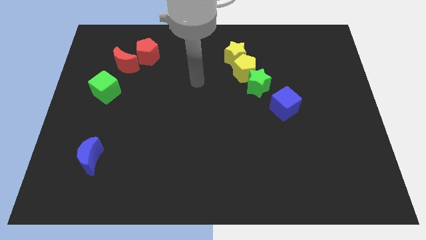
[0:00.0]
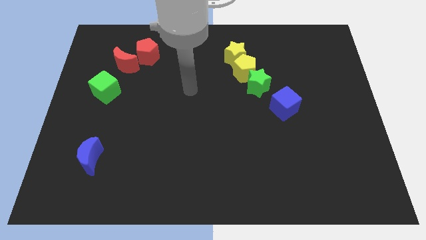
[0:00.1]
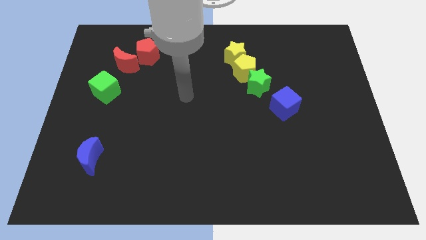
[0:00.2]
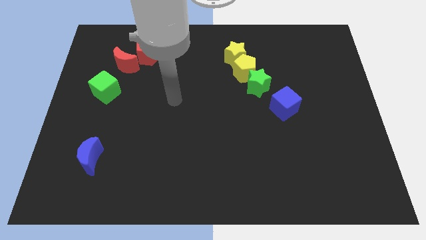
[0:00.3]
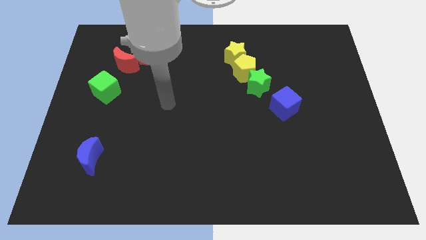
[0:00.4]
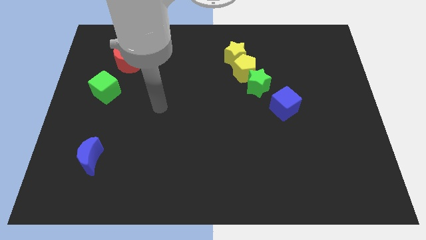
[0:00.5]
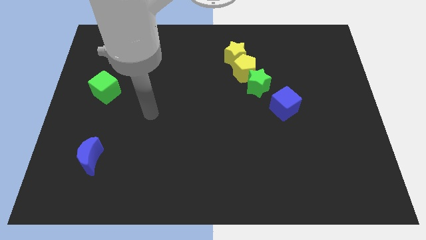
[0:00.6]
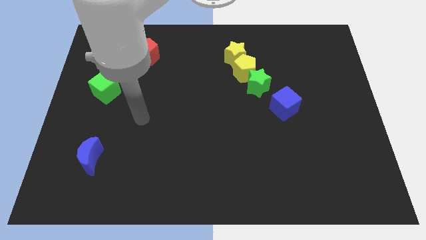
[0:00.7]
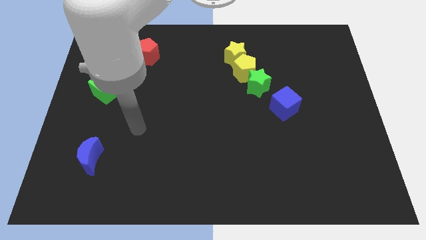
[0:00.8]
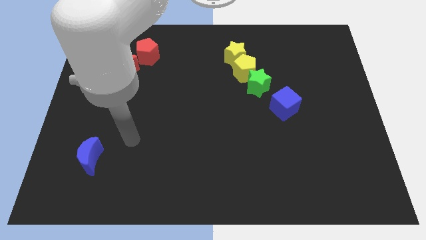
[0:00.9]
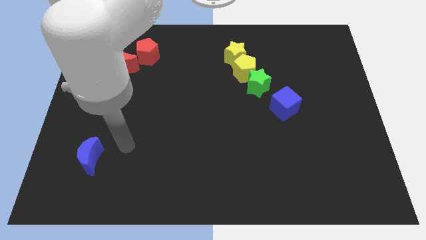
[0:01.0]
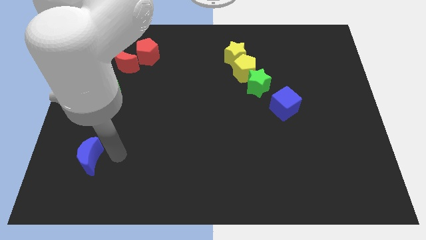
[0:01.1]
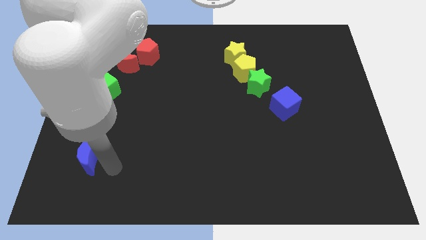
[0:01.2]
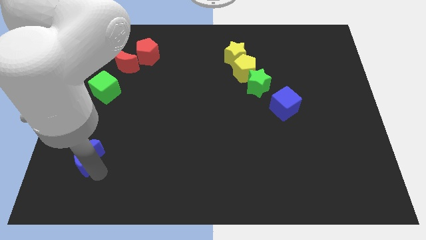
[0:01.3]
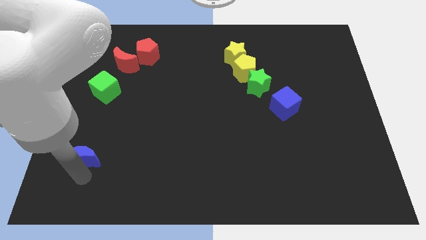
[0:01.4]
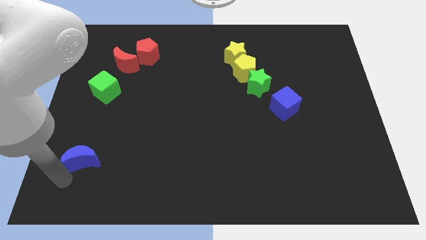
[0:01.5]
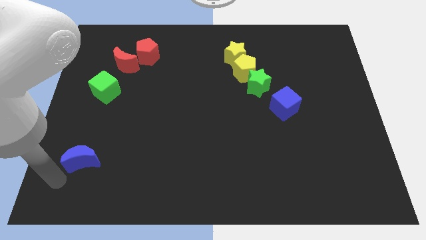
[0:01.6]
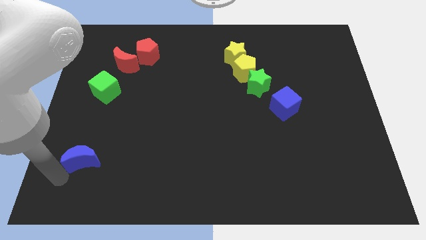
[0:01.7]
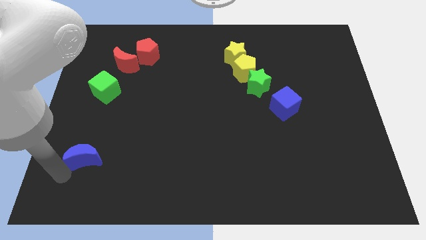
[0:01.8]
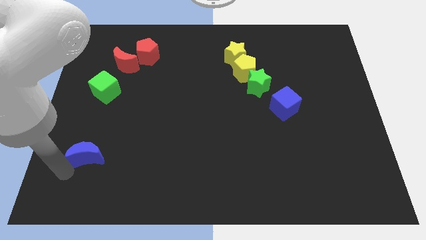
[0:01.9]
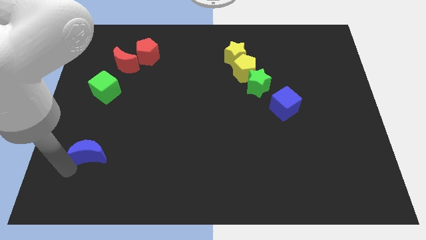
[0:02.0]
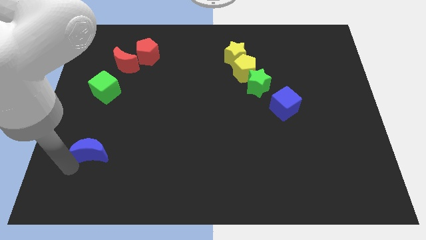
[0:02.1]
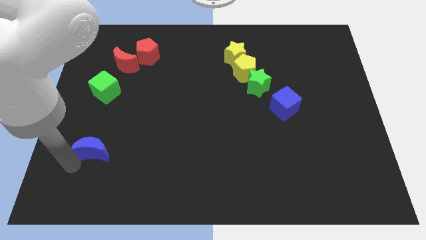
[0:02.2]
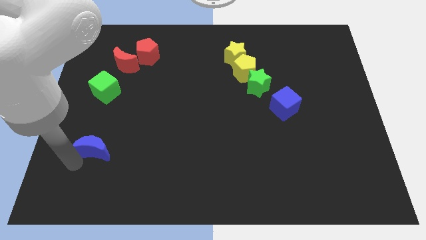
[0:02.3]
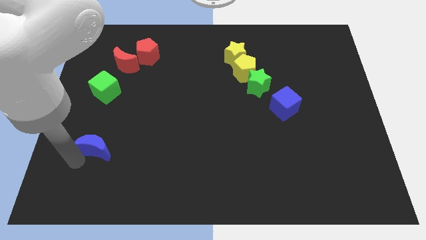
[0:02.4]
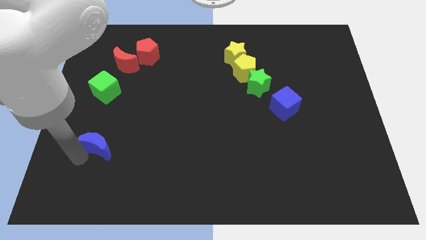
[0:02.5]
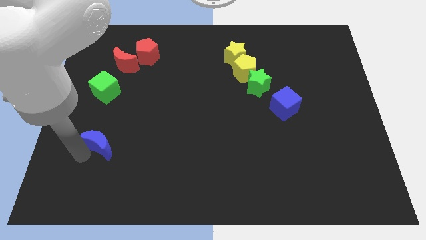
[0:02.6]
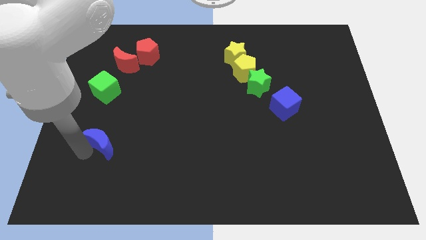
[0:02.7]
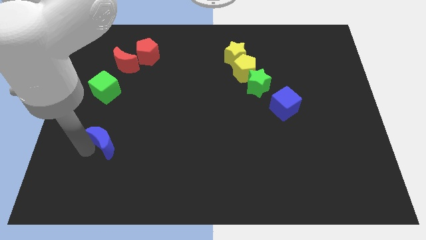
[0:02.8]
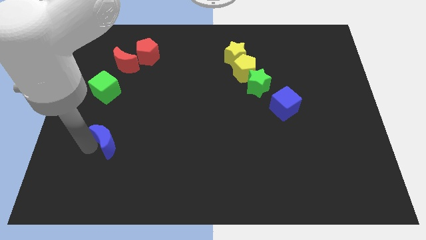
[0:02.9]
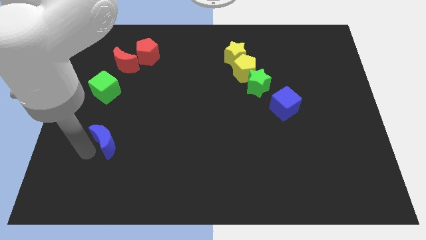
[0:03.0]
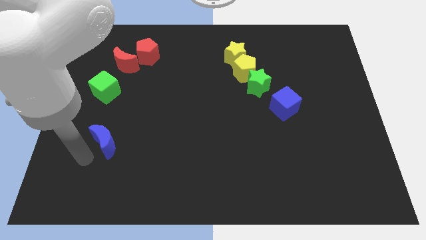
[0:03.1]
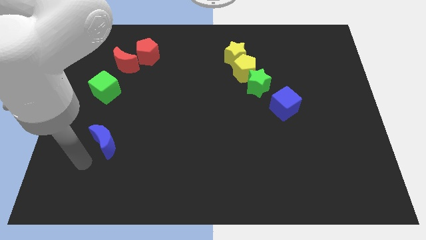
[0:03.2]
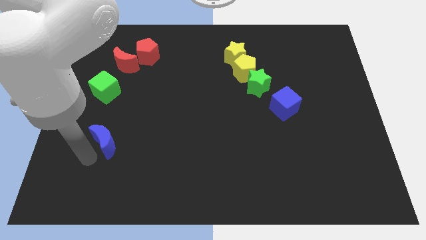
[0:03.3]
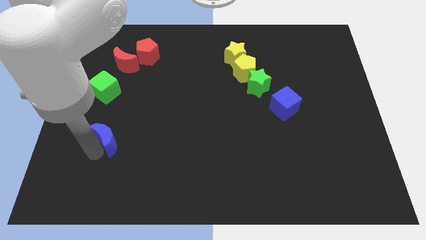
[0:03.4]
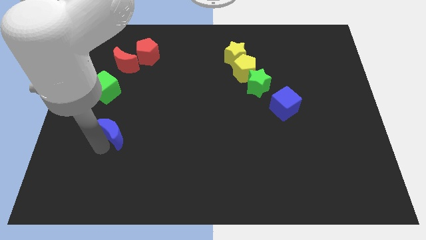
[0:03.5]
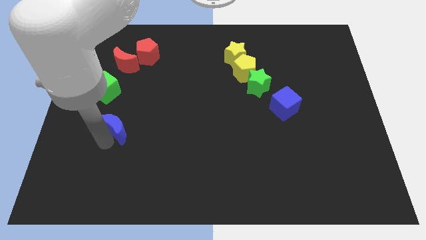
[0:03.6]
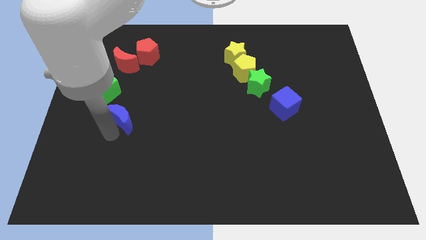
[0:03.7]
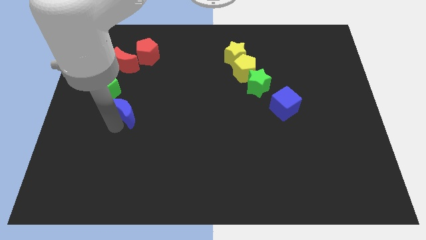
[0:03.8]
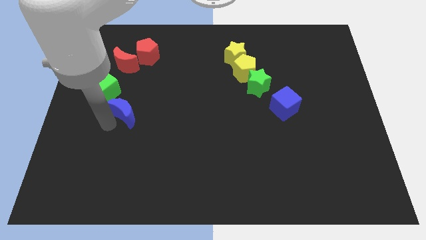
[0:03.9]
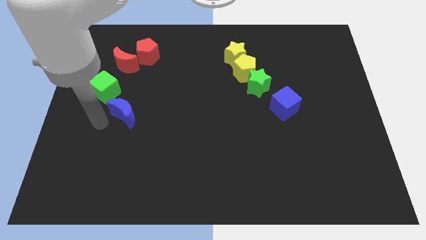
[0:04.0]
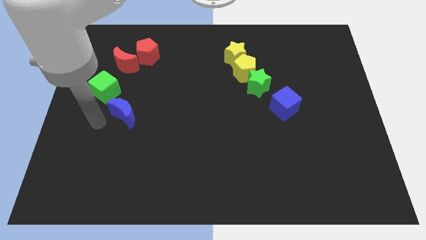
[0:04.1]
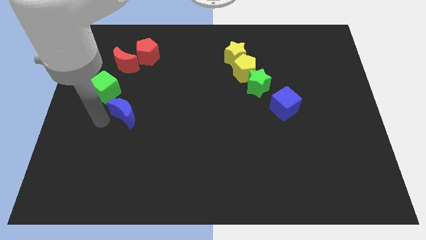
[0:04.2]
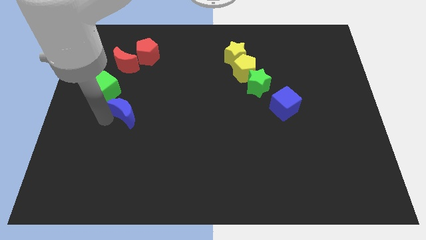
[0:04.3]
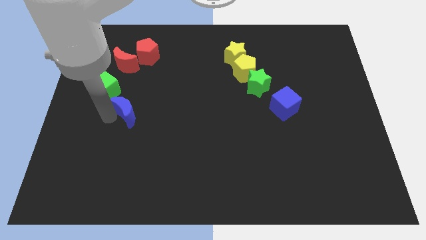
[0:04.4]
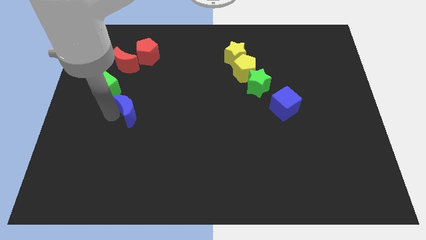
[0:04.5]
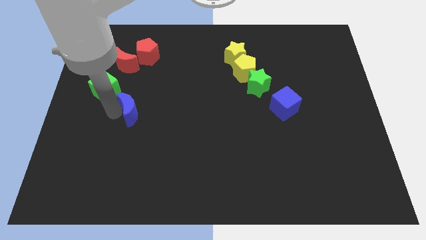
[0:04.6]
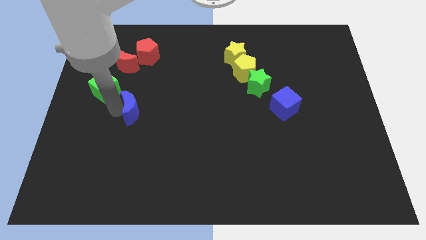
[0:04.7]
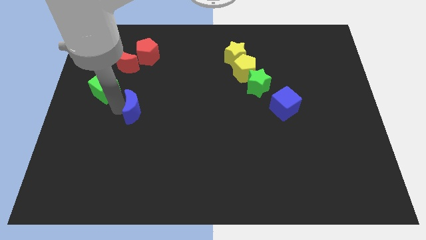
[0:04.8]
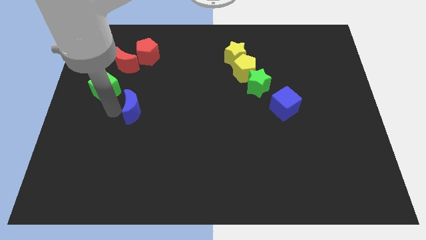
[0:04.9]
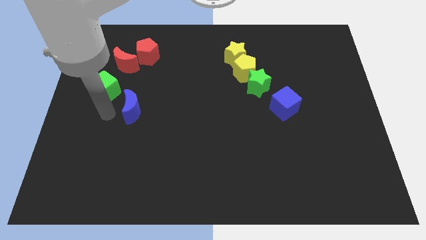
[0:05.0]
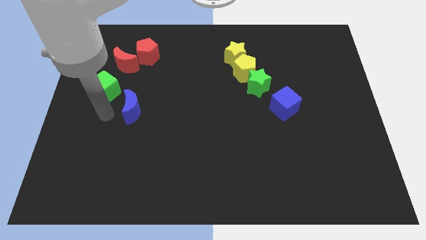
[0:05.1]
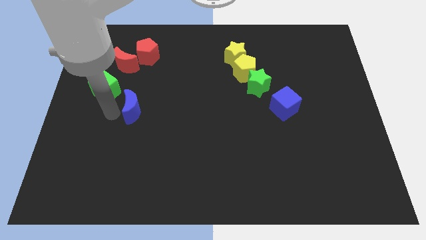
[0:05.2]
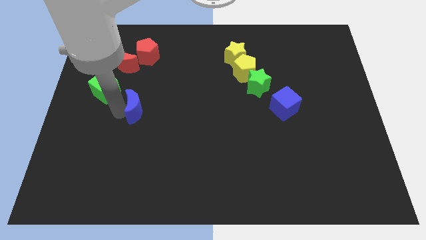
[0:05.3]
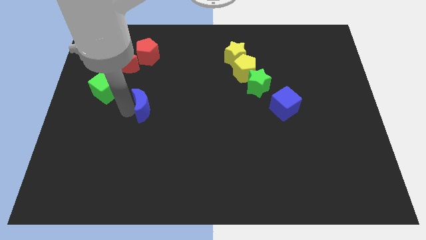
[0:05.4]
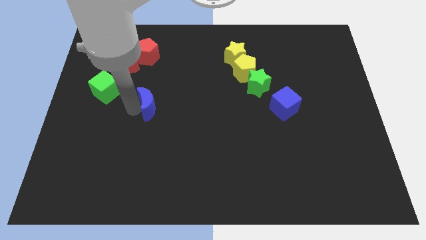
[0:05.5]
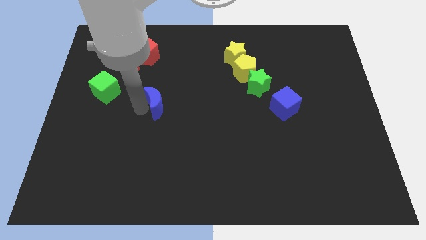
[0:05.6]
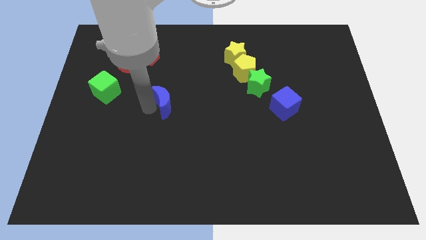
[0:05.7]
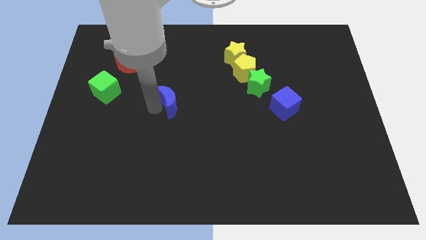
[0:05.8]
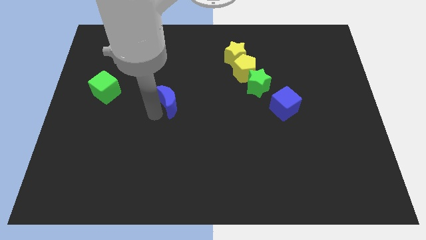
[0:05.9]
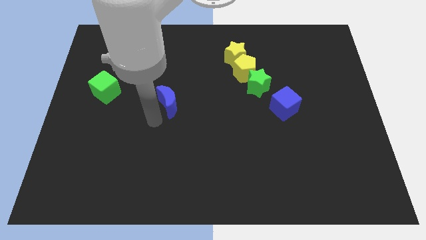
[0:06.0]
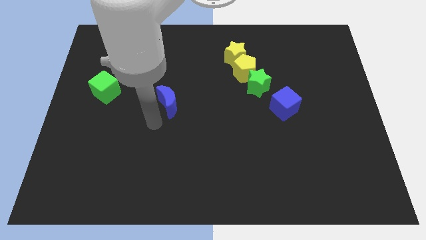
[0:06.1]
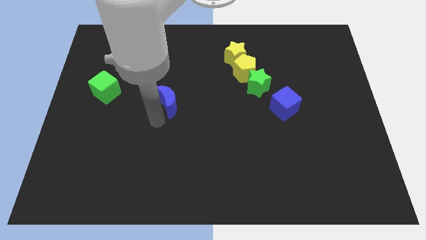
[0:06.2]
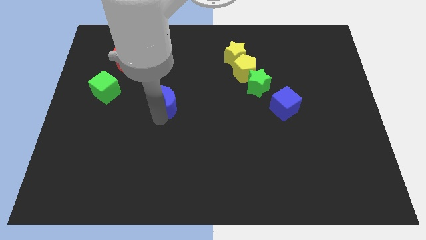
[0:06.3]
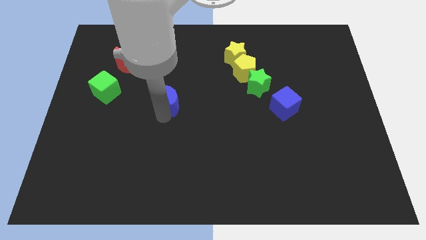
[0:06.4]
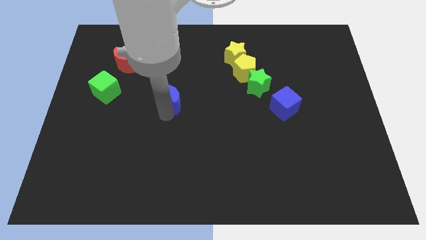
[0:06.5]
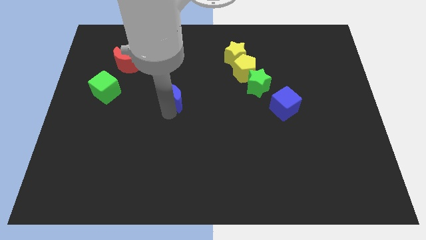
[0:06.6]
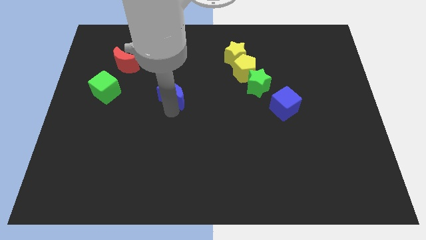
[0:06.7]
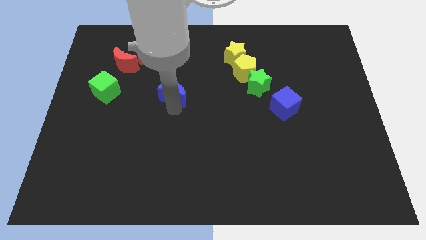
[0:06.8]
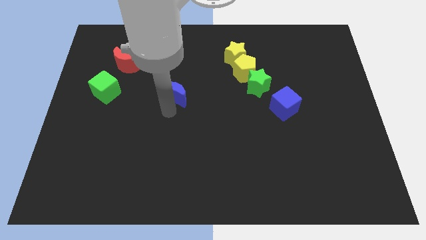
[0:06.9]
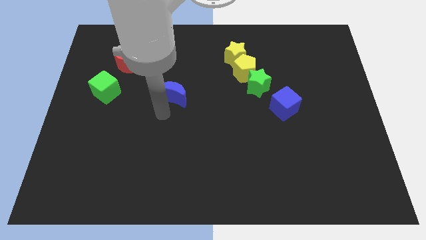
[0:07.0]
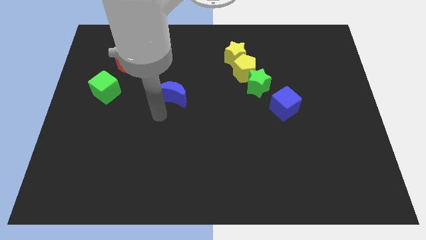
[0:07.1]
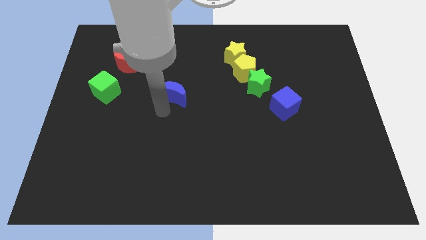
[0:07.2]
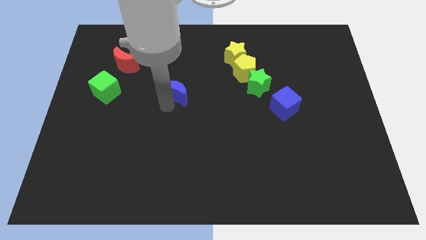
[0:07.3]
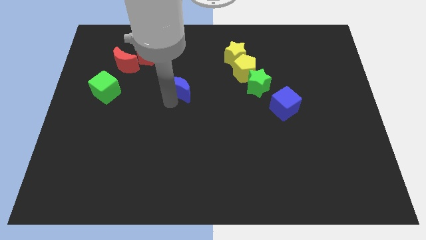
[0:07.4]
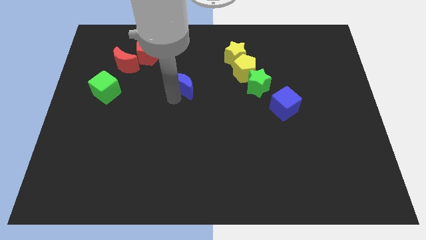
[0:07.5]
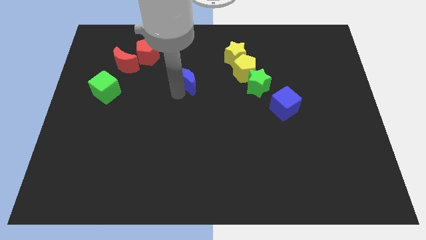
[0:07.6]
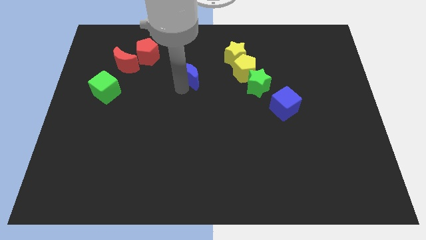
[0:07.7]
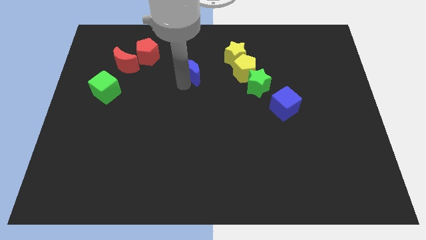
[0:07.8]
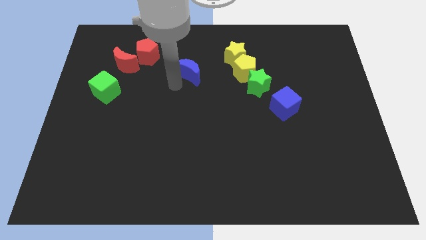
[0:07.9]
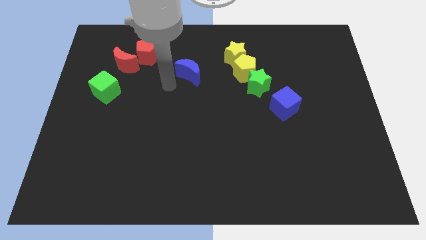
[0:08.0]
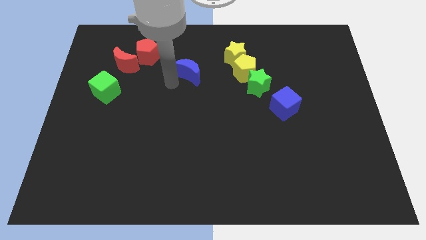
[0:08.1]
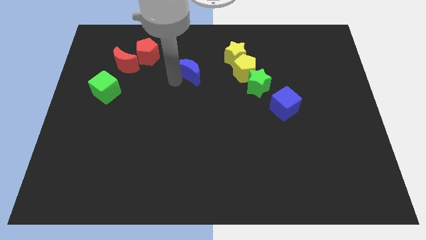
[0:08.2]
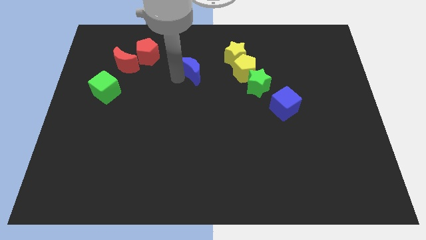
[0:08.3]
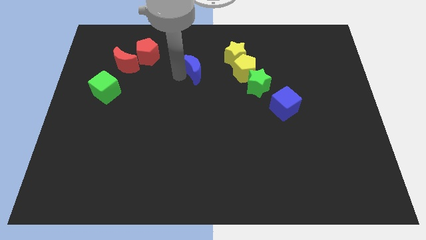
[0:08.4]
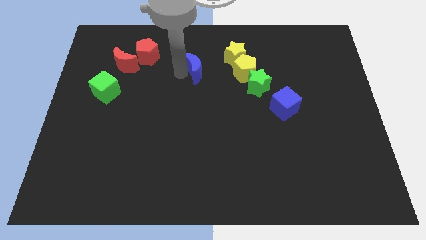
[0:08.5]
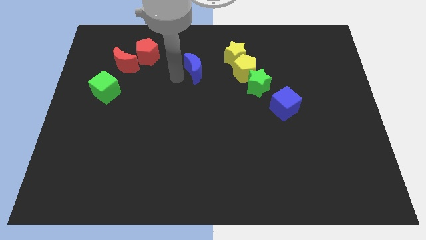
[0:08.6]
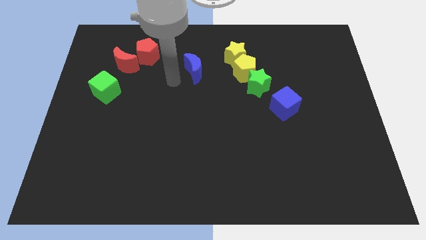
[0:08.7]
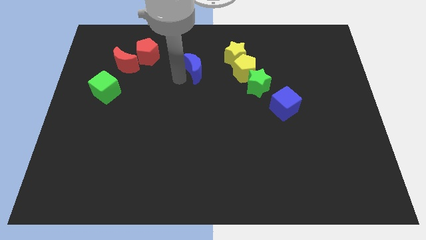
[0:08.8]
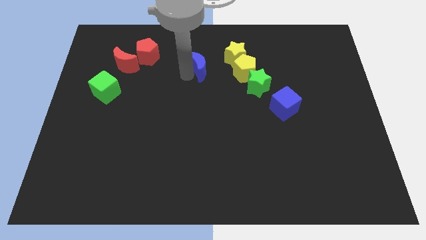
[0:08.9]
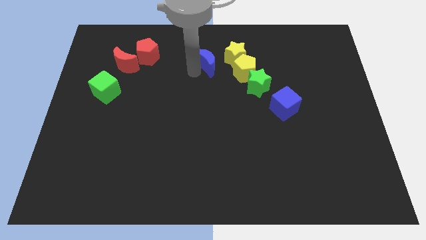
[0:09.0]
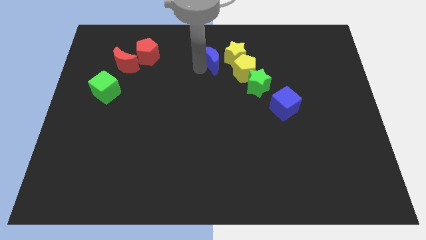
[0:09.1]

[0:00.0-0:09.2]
put the blue moon to the top left of the yellow pentagon
